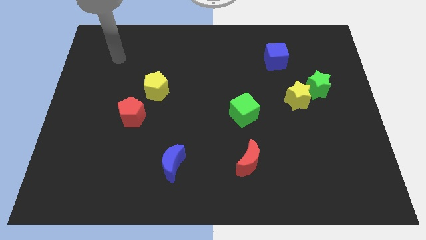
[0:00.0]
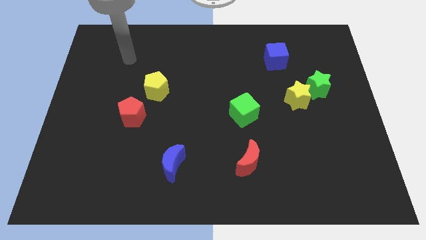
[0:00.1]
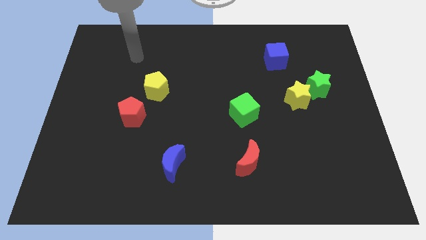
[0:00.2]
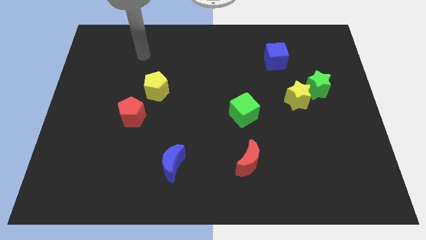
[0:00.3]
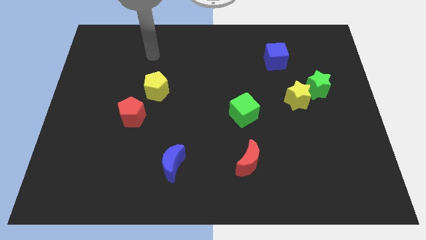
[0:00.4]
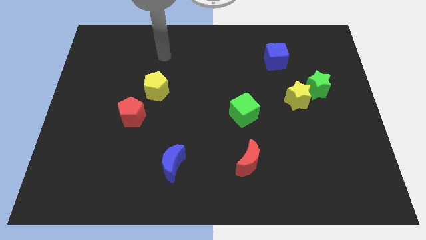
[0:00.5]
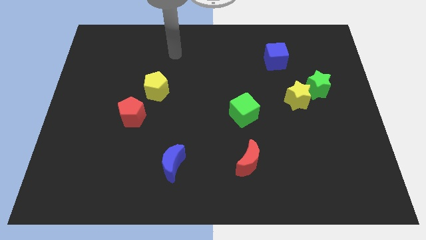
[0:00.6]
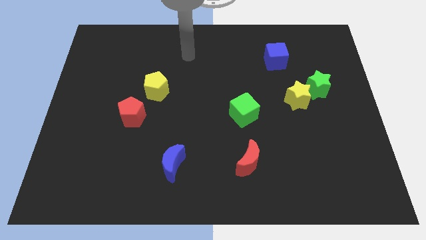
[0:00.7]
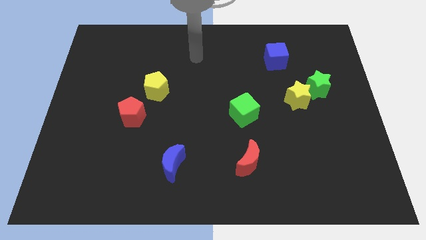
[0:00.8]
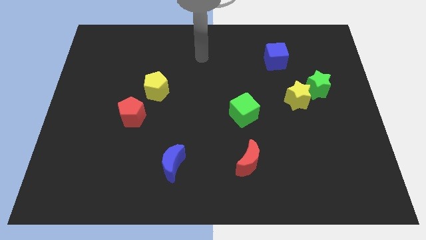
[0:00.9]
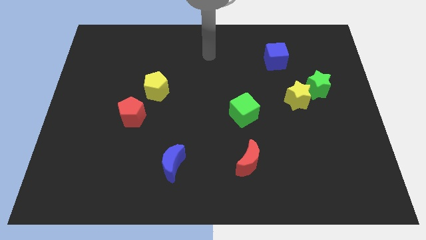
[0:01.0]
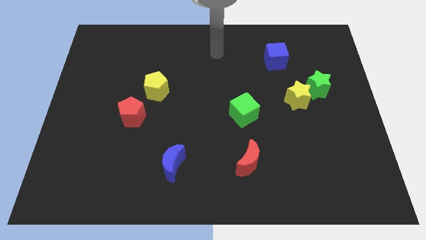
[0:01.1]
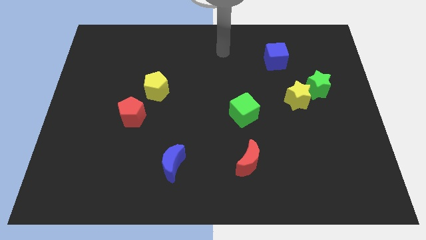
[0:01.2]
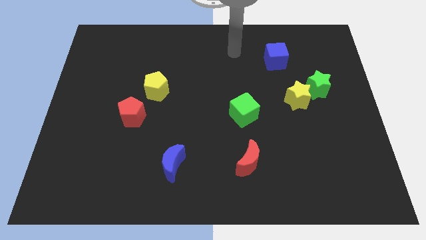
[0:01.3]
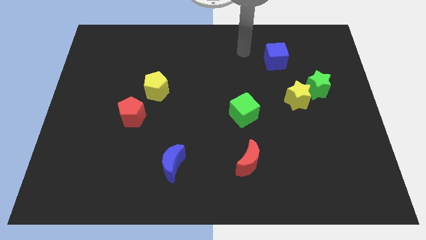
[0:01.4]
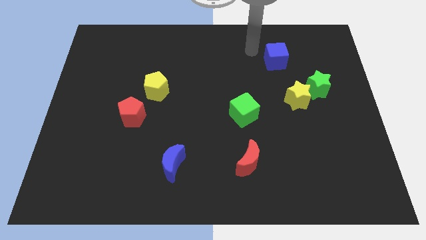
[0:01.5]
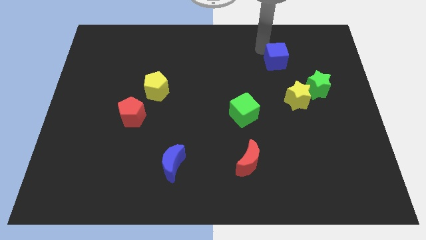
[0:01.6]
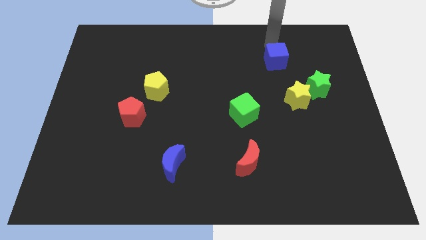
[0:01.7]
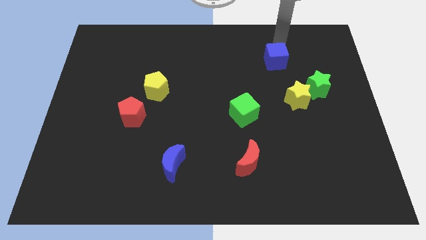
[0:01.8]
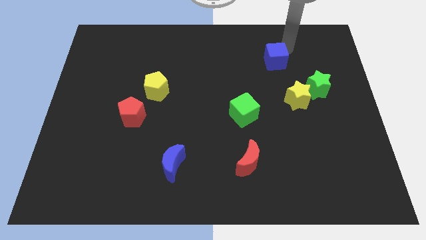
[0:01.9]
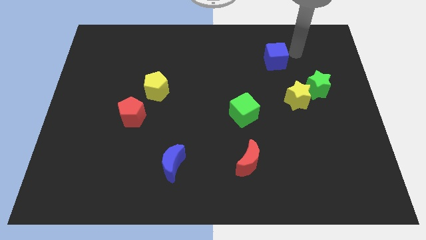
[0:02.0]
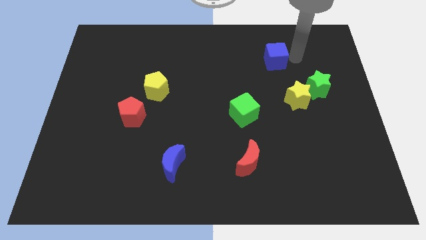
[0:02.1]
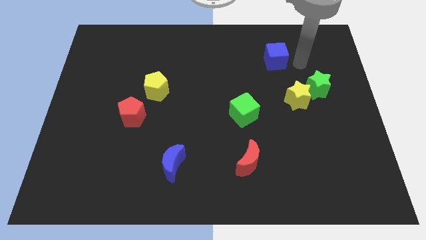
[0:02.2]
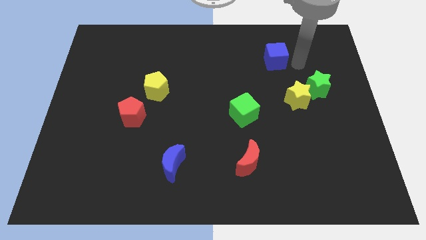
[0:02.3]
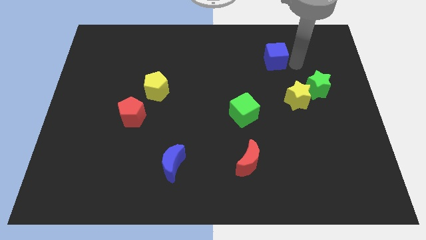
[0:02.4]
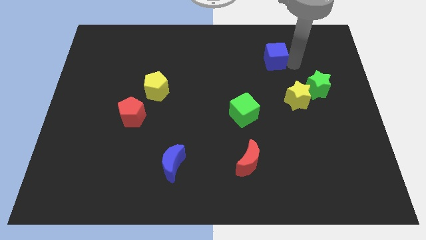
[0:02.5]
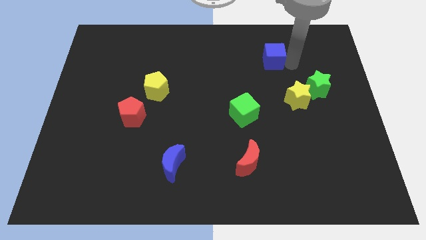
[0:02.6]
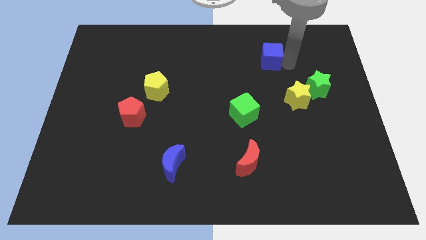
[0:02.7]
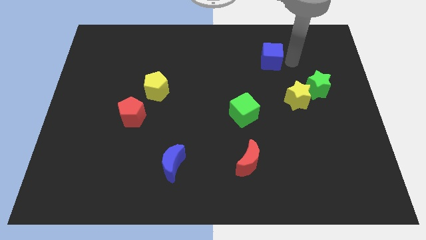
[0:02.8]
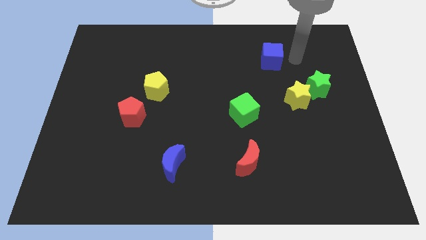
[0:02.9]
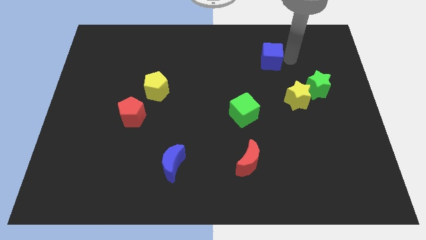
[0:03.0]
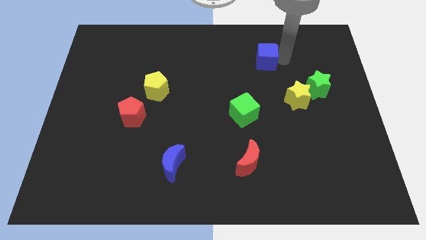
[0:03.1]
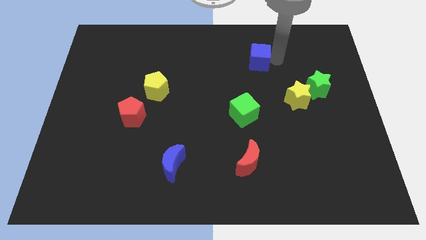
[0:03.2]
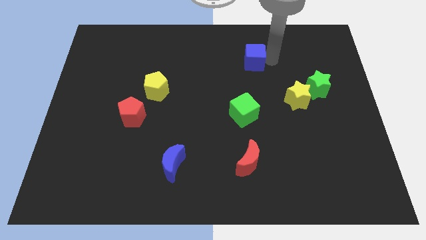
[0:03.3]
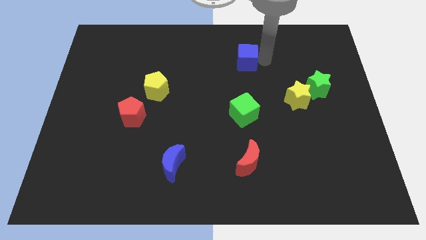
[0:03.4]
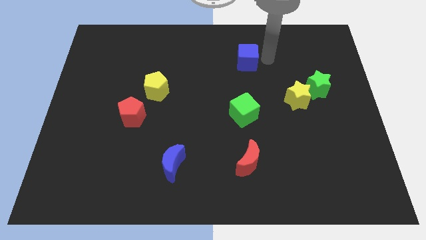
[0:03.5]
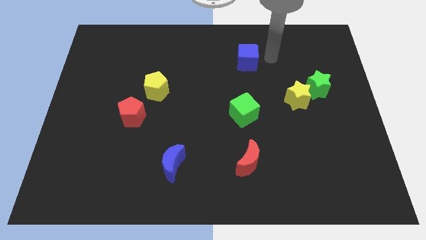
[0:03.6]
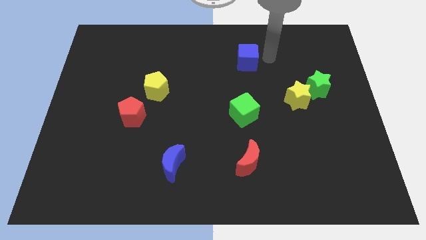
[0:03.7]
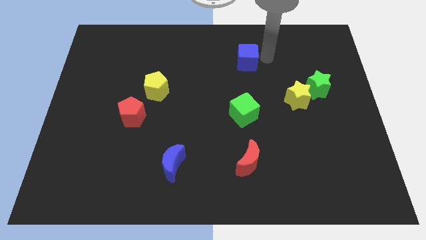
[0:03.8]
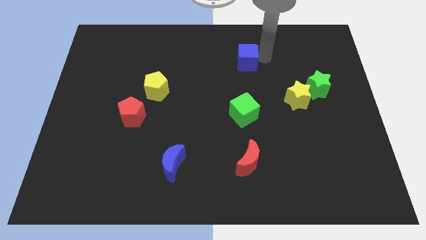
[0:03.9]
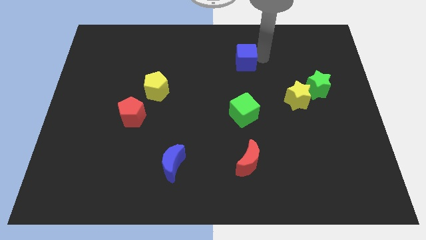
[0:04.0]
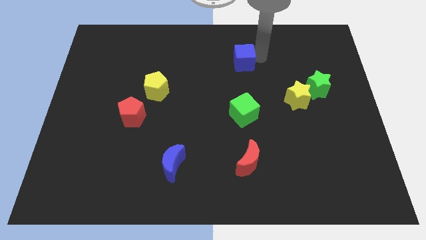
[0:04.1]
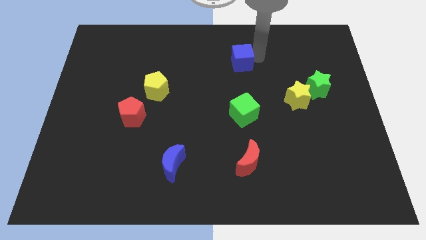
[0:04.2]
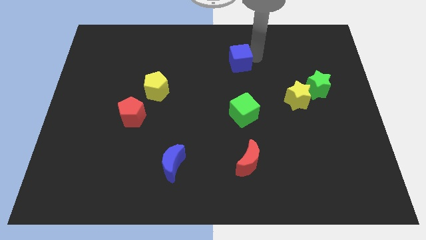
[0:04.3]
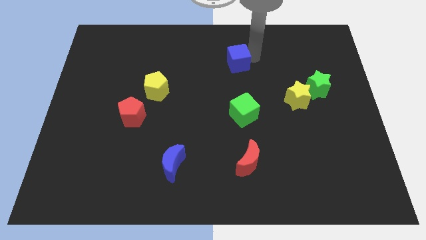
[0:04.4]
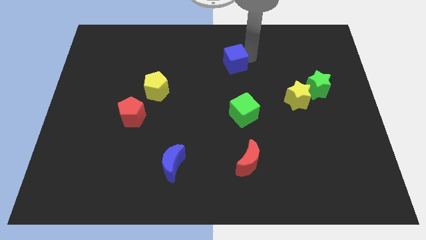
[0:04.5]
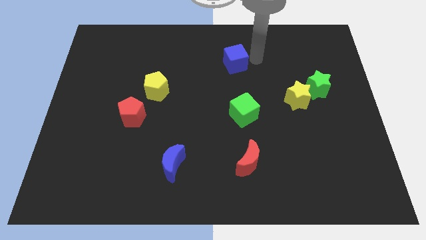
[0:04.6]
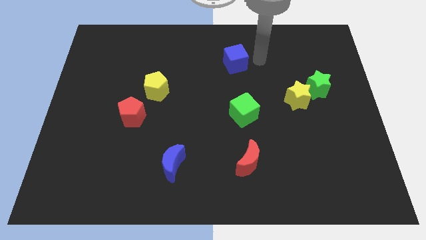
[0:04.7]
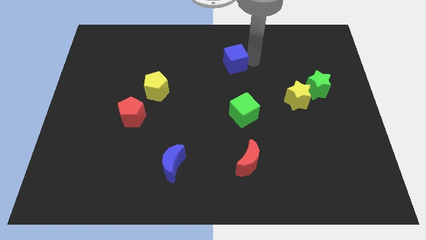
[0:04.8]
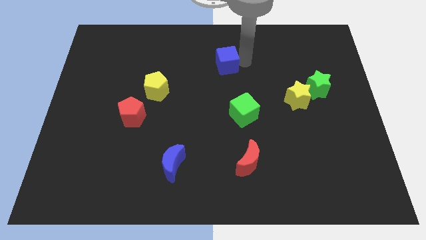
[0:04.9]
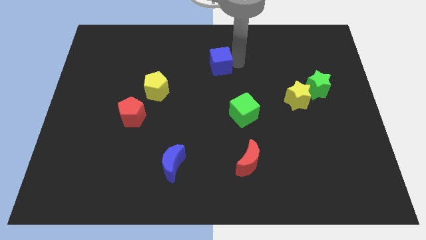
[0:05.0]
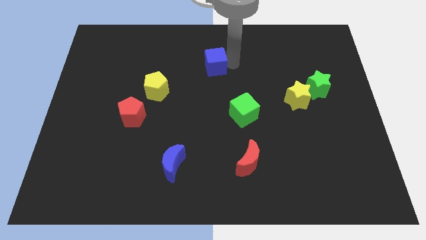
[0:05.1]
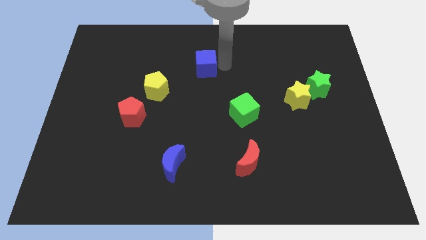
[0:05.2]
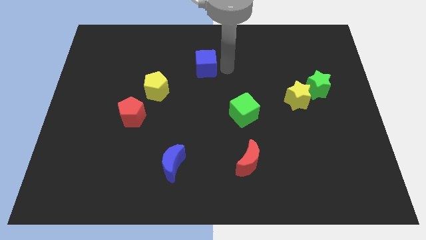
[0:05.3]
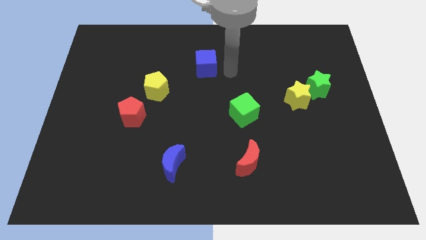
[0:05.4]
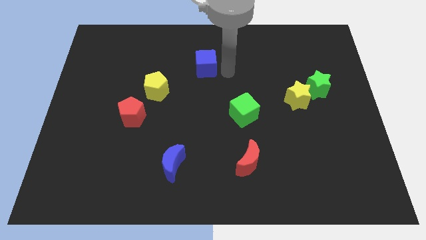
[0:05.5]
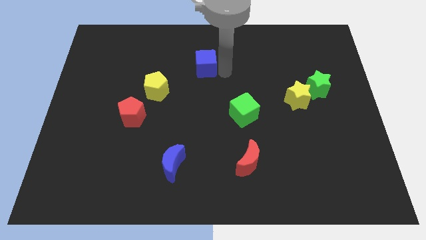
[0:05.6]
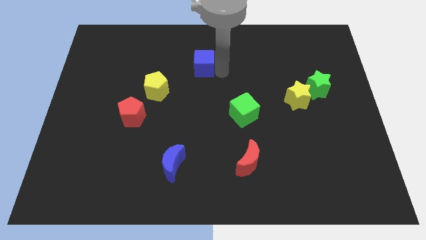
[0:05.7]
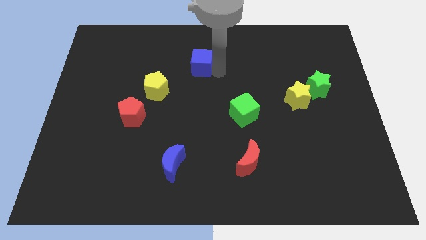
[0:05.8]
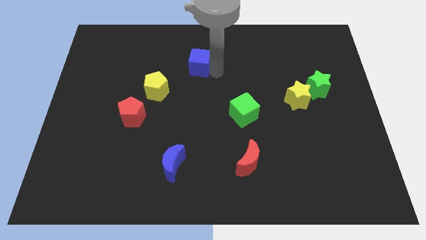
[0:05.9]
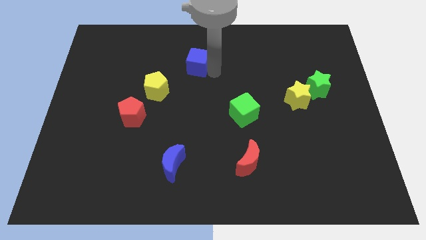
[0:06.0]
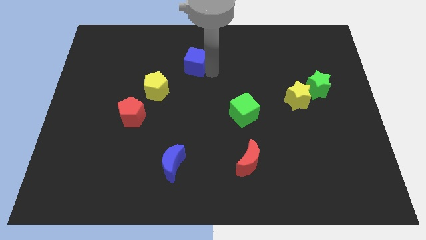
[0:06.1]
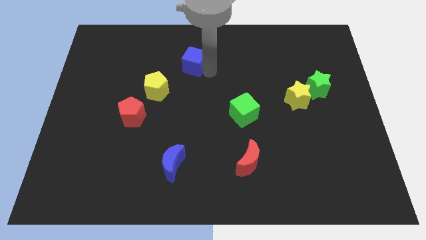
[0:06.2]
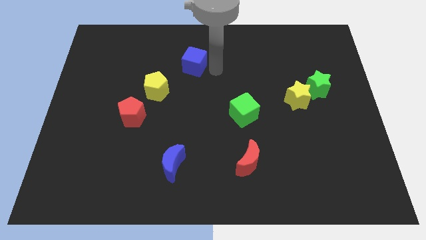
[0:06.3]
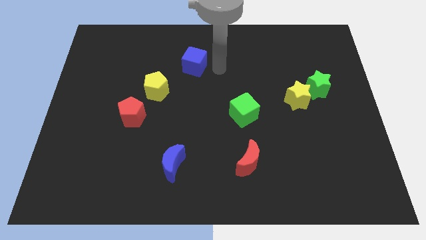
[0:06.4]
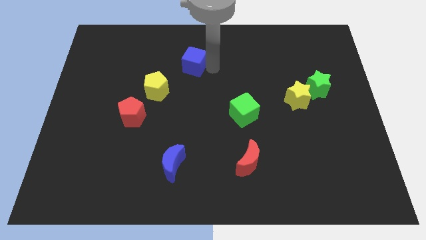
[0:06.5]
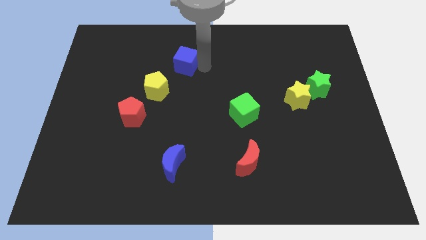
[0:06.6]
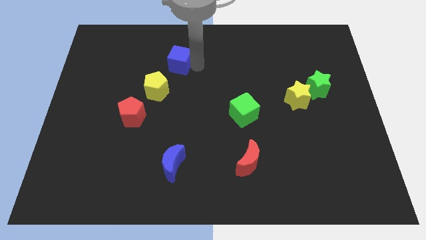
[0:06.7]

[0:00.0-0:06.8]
slide the blue cube above the yellow pentagon
